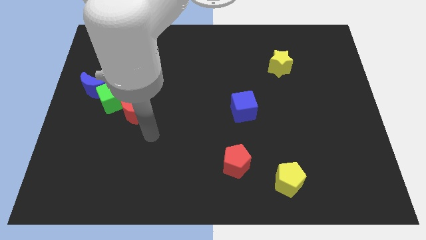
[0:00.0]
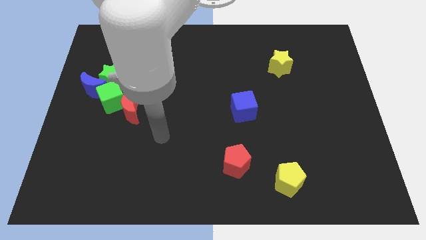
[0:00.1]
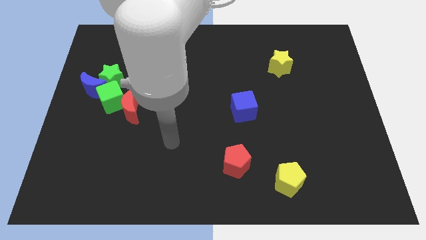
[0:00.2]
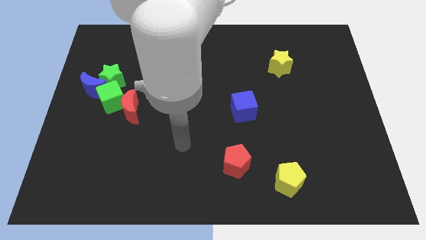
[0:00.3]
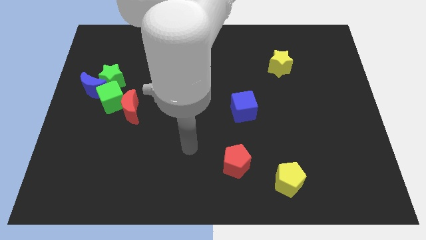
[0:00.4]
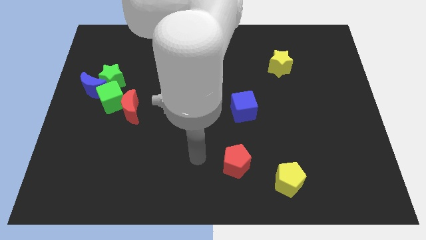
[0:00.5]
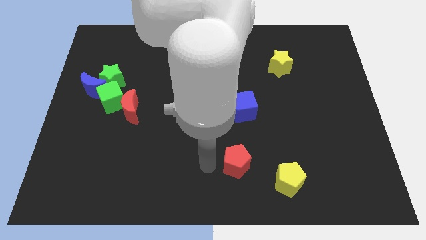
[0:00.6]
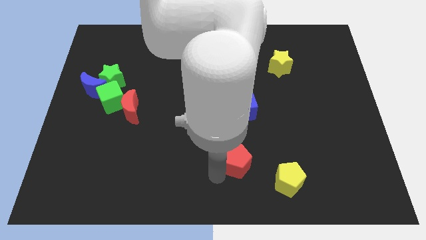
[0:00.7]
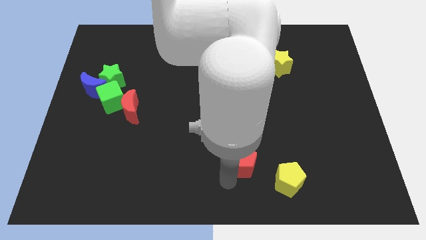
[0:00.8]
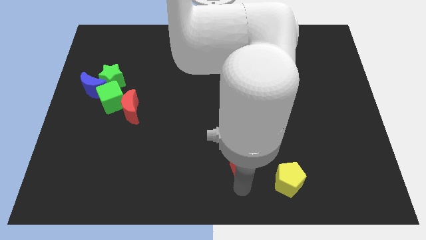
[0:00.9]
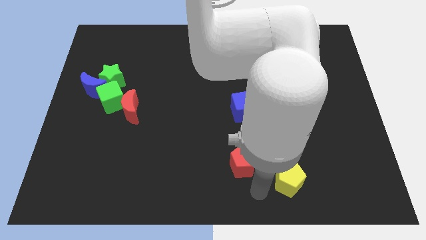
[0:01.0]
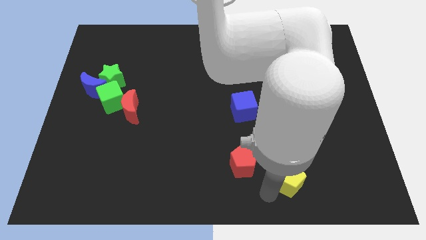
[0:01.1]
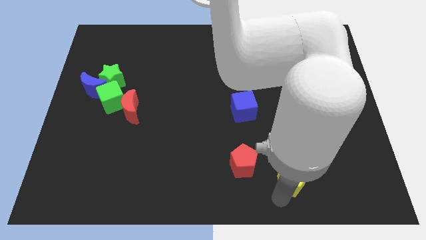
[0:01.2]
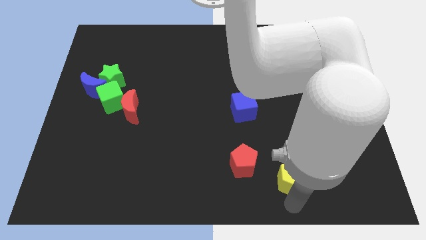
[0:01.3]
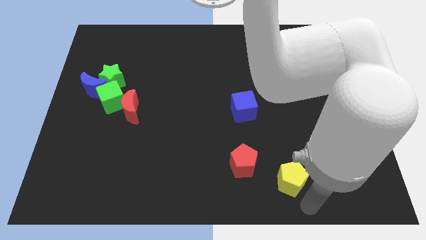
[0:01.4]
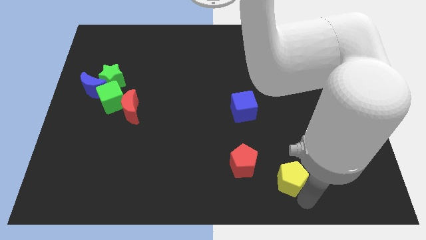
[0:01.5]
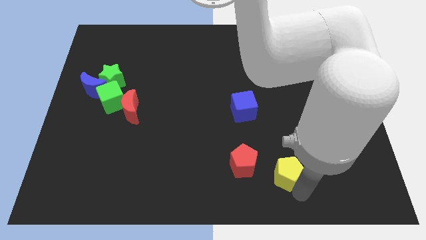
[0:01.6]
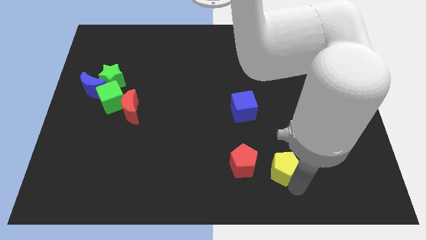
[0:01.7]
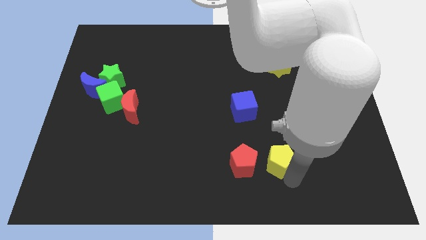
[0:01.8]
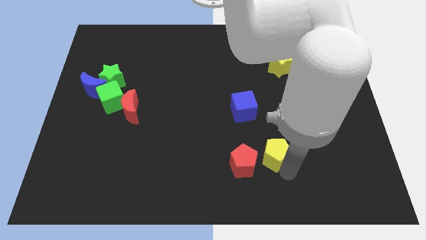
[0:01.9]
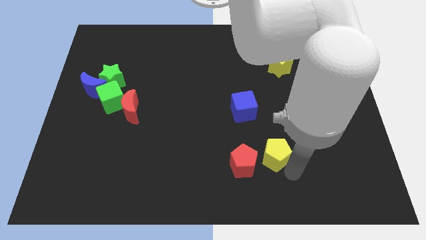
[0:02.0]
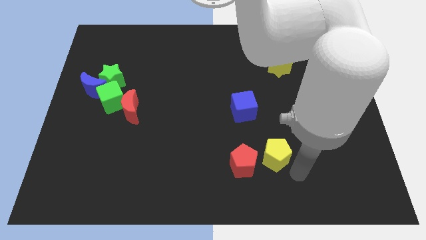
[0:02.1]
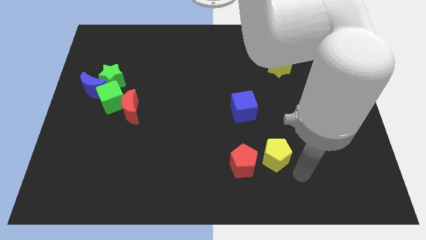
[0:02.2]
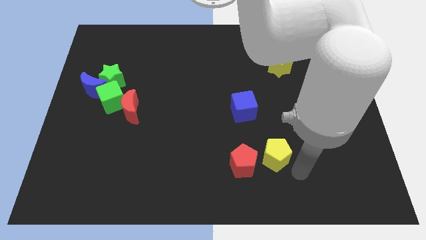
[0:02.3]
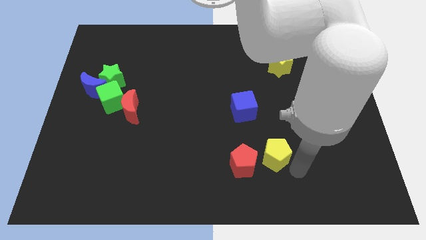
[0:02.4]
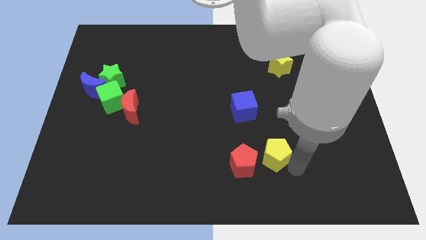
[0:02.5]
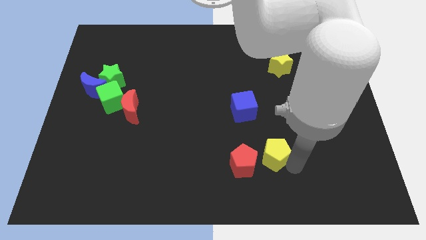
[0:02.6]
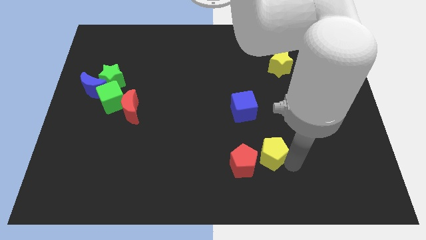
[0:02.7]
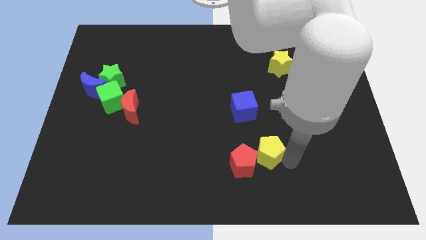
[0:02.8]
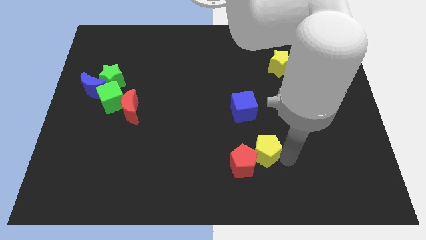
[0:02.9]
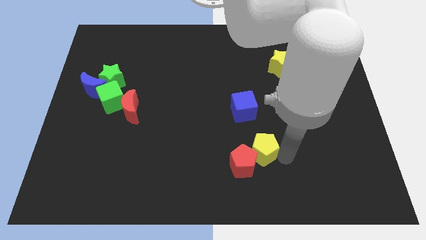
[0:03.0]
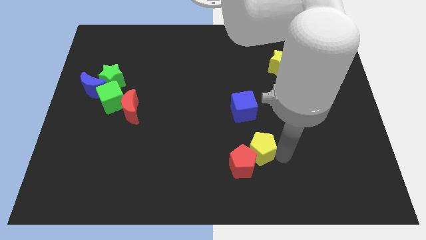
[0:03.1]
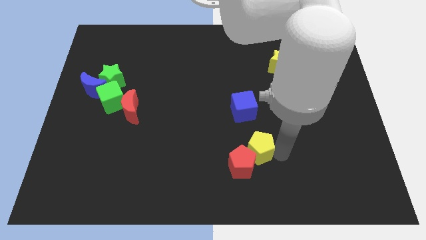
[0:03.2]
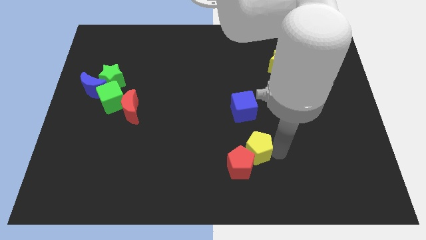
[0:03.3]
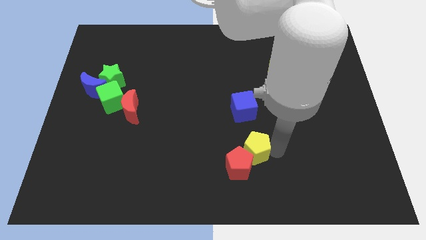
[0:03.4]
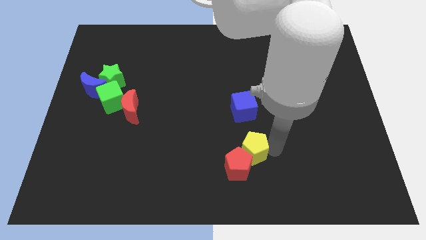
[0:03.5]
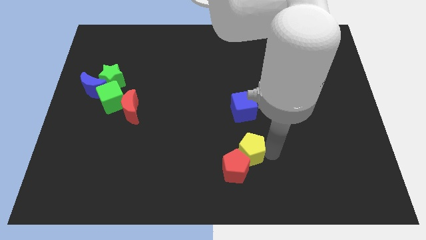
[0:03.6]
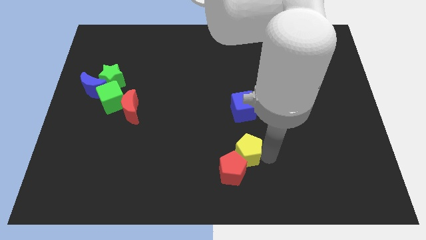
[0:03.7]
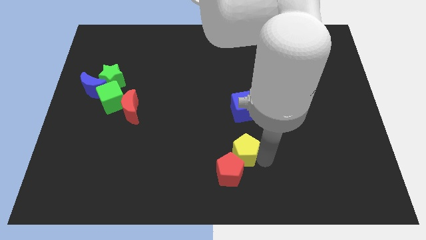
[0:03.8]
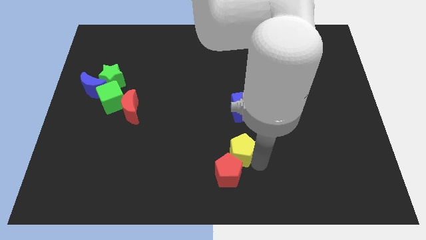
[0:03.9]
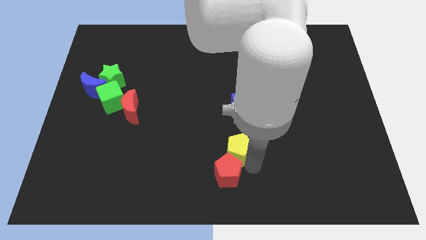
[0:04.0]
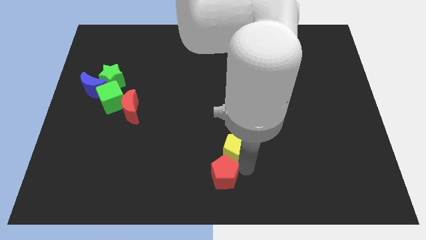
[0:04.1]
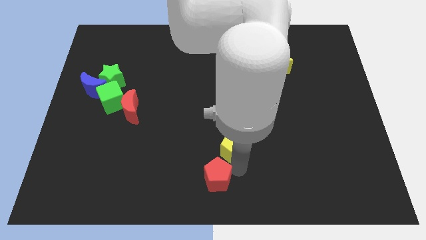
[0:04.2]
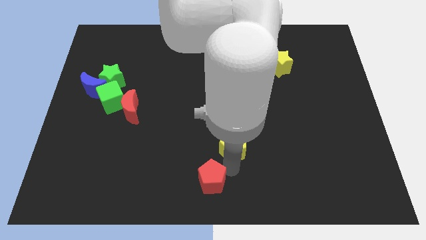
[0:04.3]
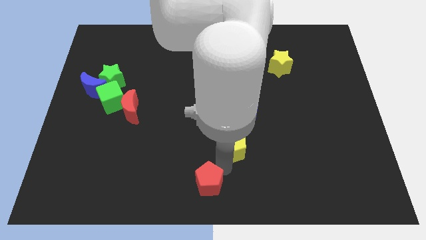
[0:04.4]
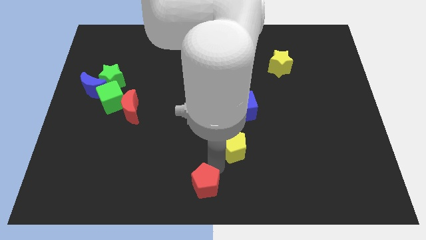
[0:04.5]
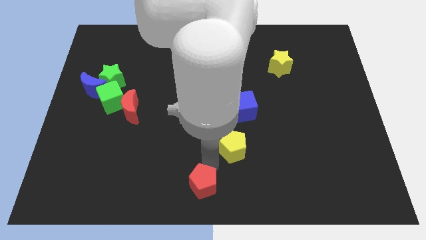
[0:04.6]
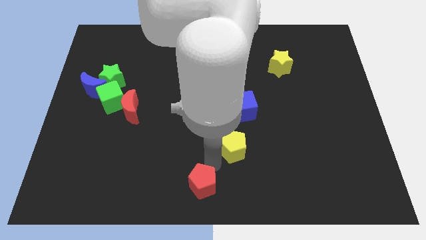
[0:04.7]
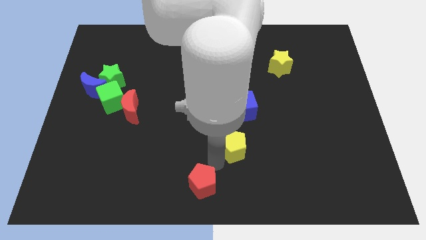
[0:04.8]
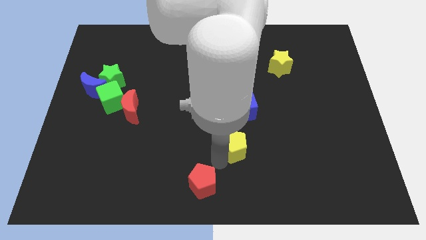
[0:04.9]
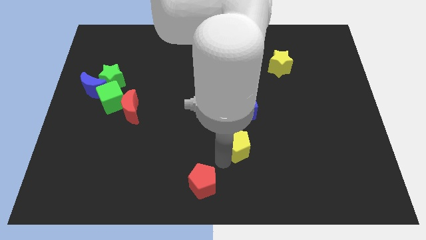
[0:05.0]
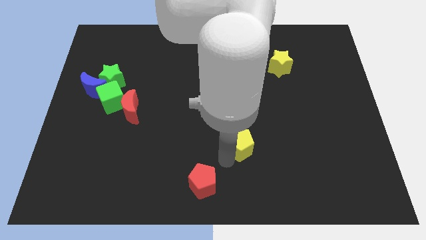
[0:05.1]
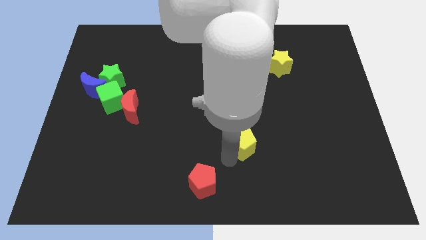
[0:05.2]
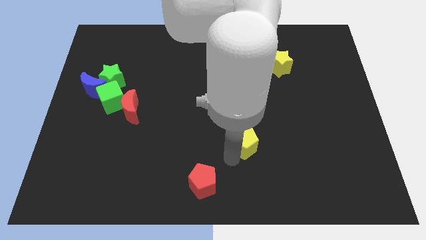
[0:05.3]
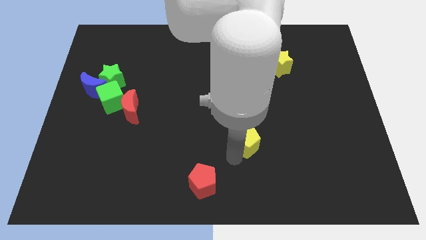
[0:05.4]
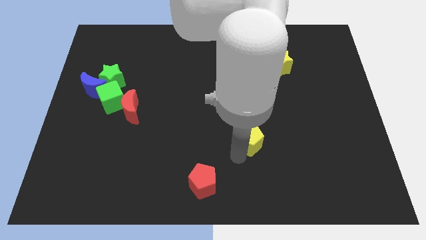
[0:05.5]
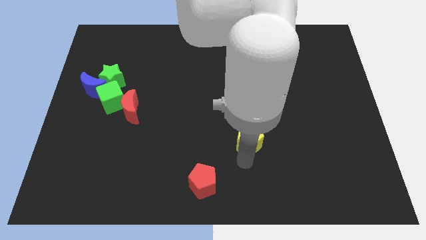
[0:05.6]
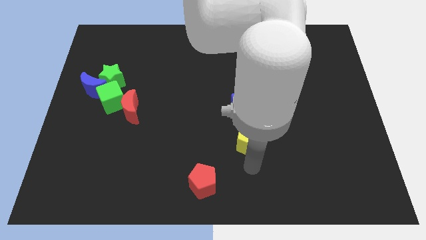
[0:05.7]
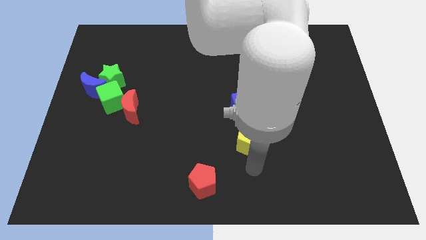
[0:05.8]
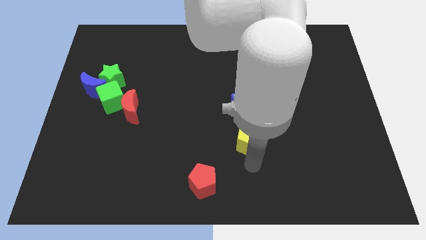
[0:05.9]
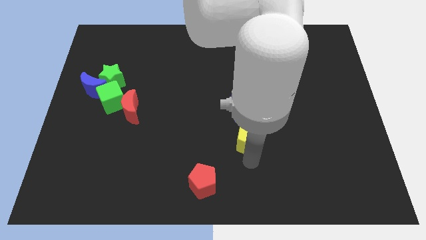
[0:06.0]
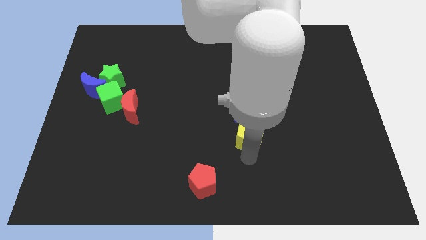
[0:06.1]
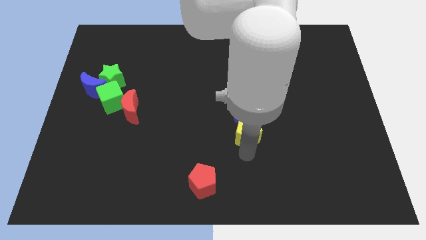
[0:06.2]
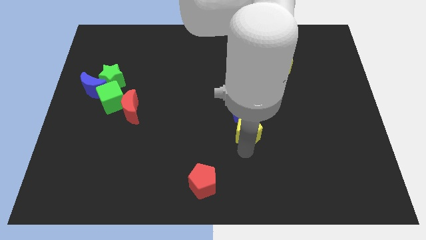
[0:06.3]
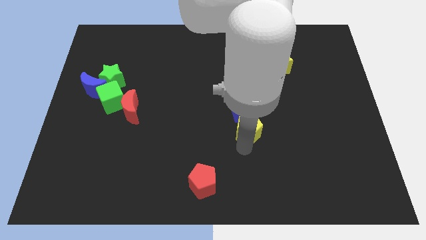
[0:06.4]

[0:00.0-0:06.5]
put the yellow pentagon next to the blue cube
